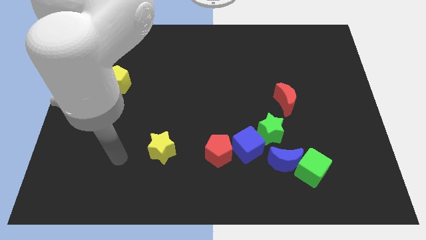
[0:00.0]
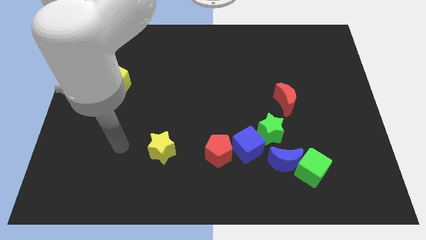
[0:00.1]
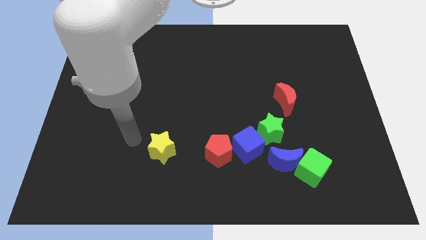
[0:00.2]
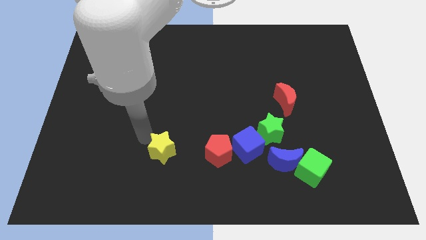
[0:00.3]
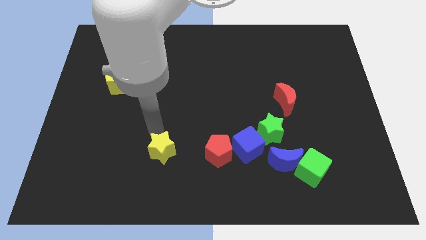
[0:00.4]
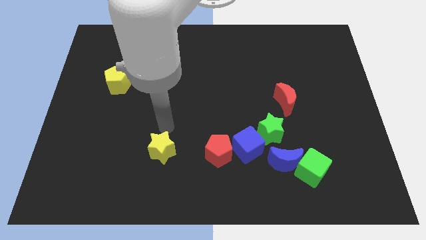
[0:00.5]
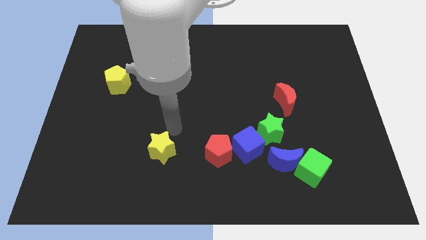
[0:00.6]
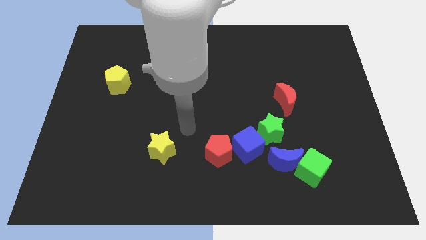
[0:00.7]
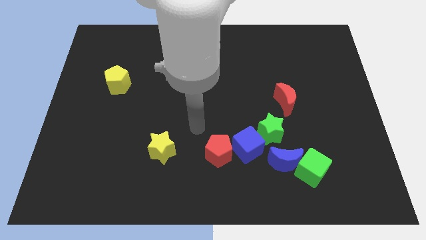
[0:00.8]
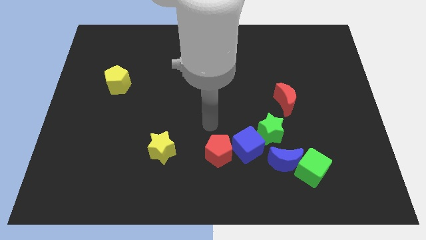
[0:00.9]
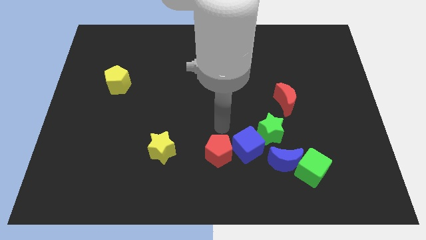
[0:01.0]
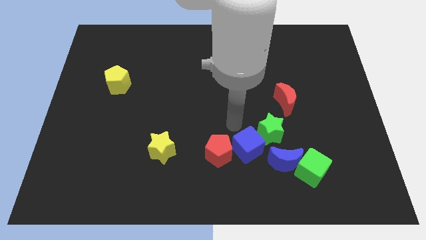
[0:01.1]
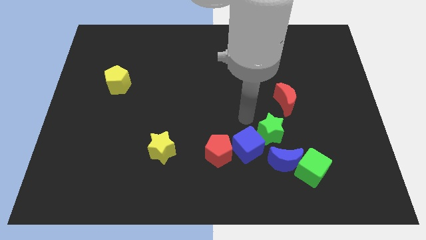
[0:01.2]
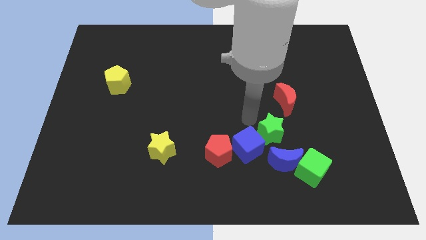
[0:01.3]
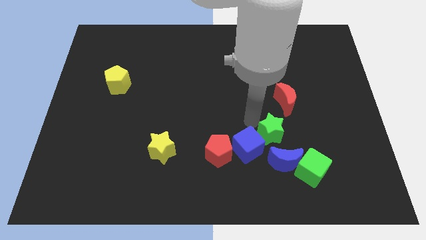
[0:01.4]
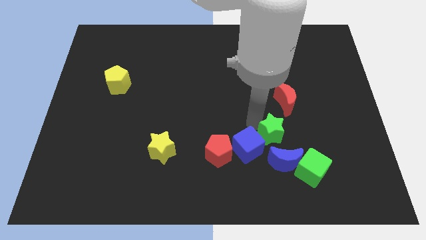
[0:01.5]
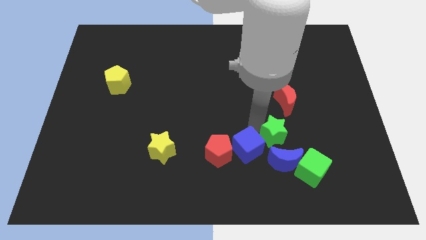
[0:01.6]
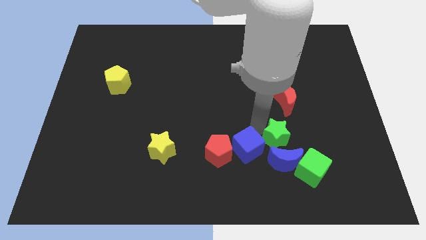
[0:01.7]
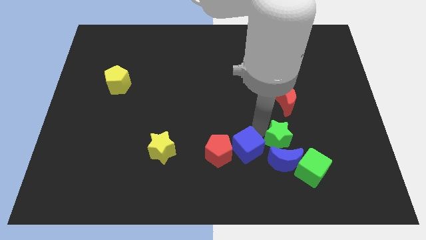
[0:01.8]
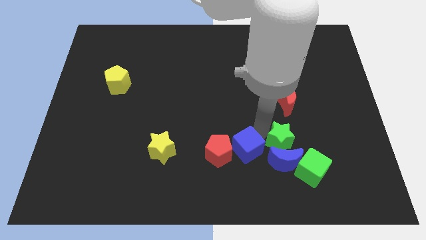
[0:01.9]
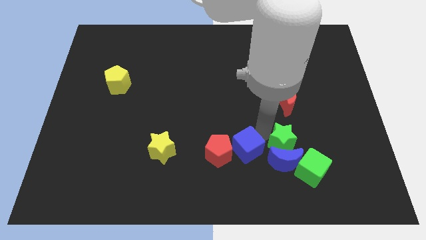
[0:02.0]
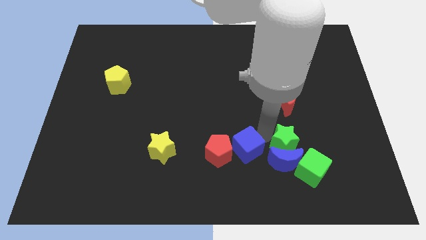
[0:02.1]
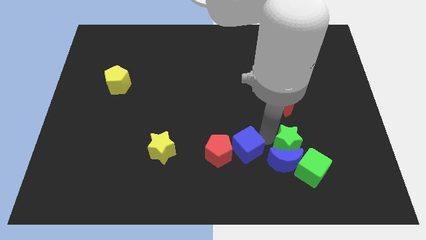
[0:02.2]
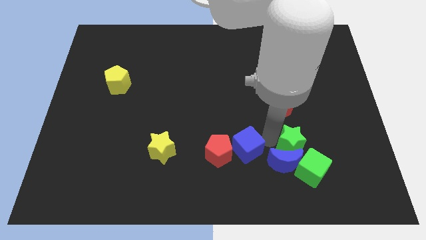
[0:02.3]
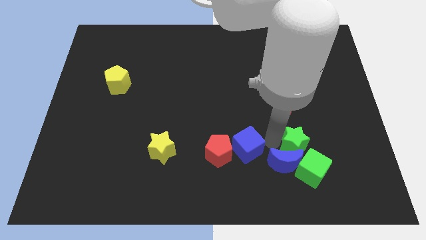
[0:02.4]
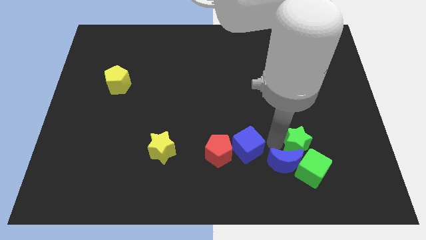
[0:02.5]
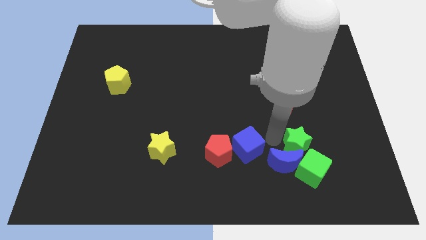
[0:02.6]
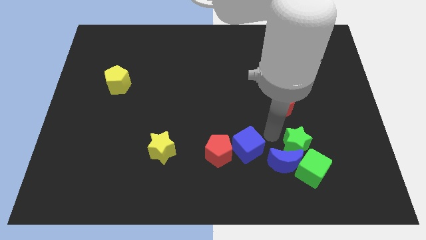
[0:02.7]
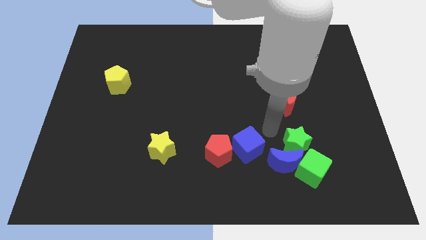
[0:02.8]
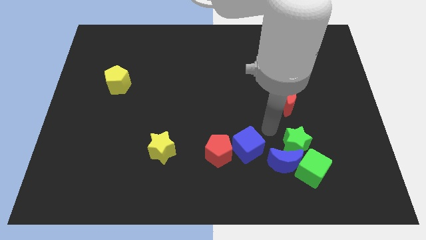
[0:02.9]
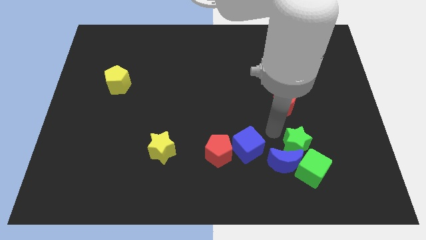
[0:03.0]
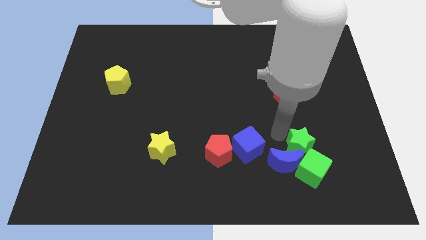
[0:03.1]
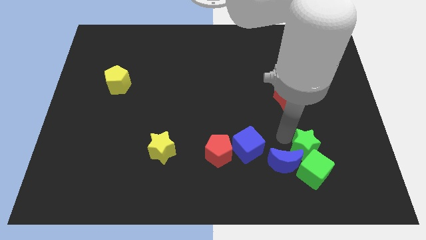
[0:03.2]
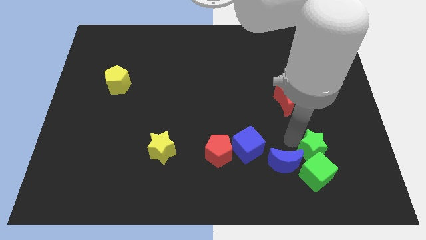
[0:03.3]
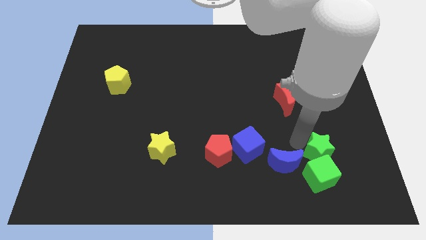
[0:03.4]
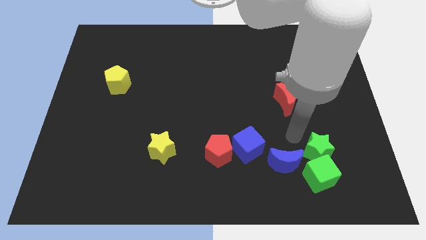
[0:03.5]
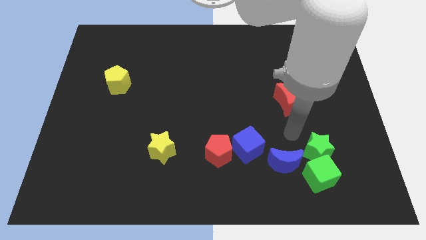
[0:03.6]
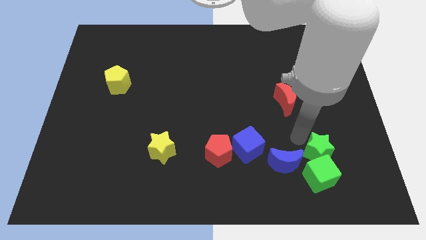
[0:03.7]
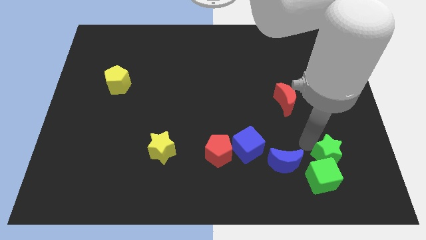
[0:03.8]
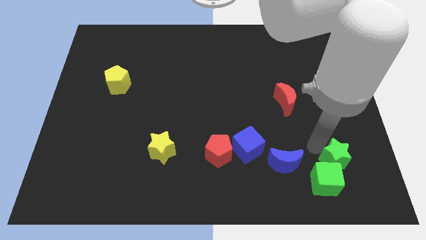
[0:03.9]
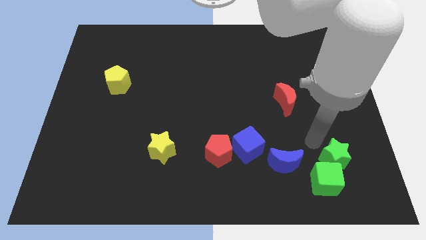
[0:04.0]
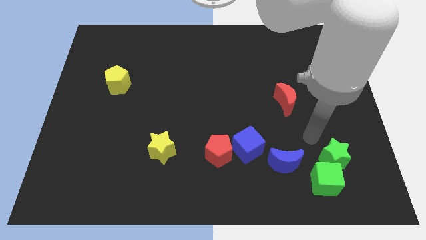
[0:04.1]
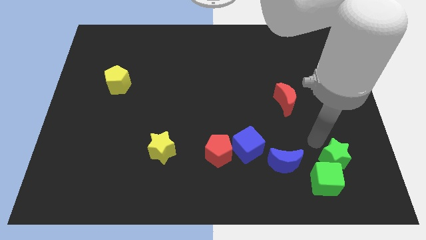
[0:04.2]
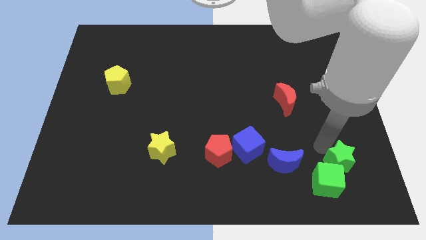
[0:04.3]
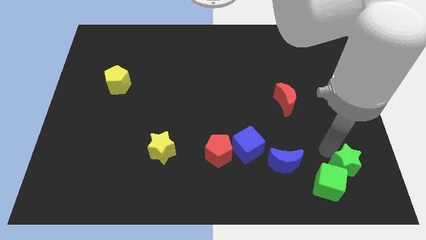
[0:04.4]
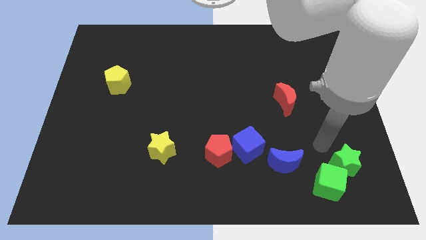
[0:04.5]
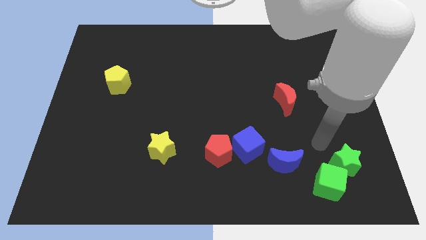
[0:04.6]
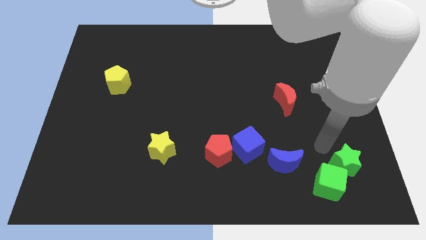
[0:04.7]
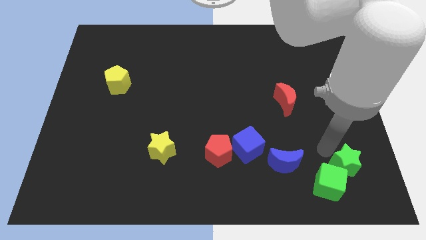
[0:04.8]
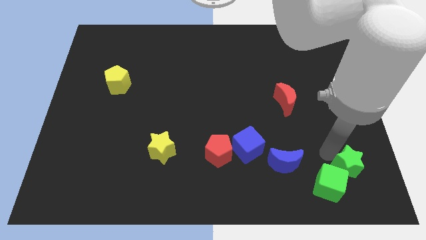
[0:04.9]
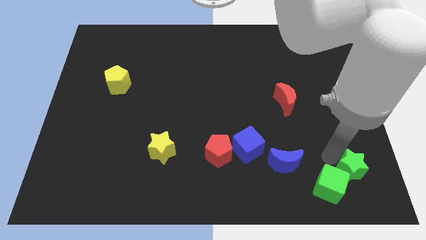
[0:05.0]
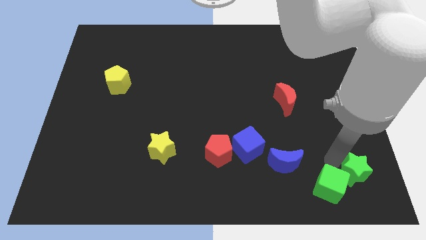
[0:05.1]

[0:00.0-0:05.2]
put the green star to the lower right corner

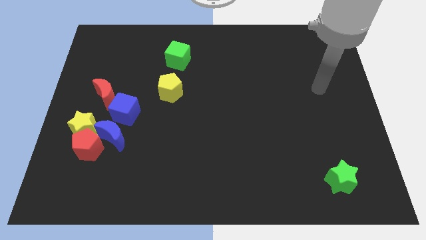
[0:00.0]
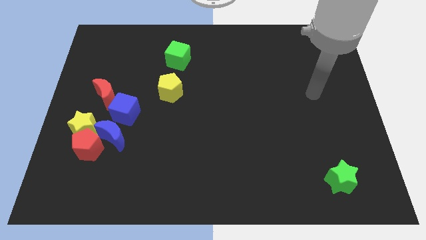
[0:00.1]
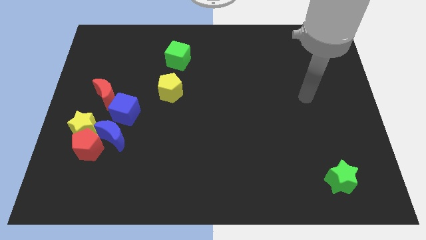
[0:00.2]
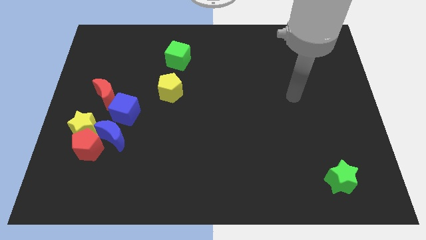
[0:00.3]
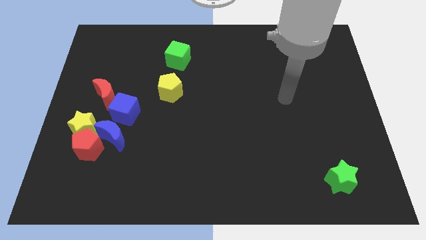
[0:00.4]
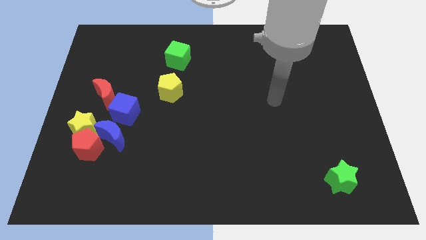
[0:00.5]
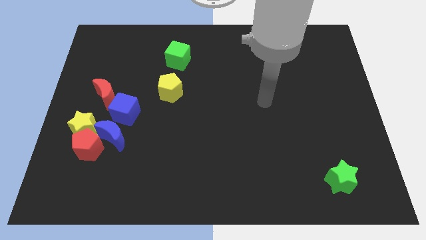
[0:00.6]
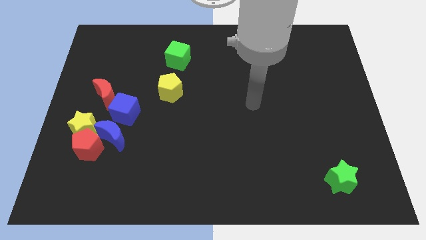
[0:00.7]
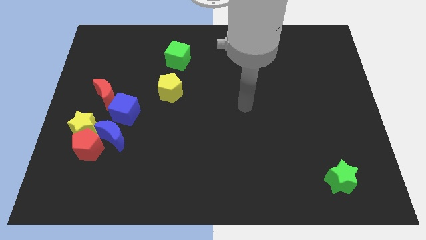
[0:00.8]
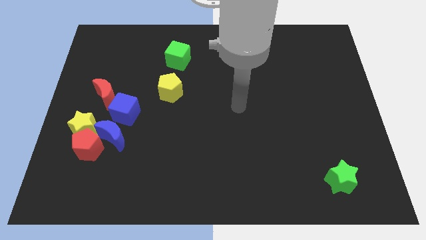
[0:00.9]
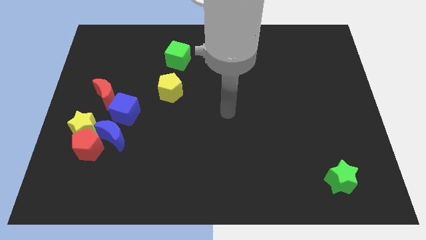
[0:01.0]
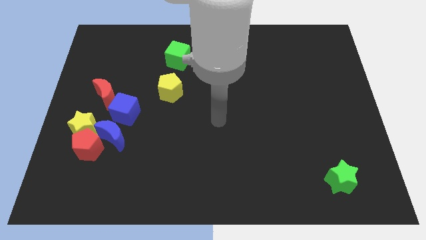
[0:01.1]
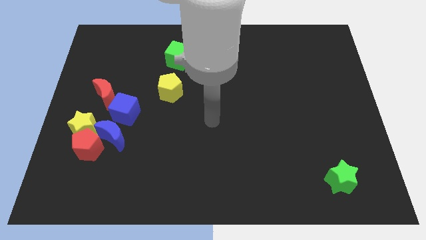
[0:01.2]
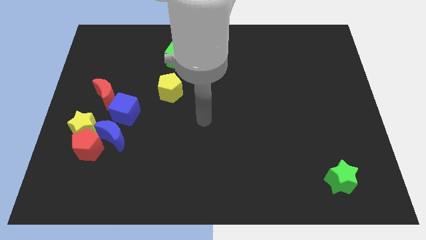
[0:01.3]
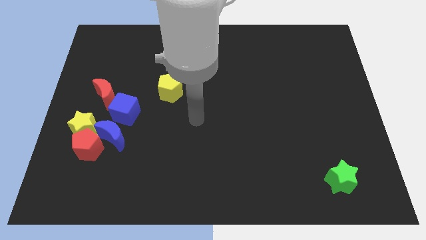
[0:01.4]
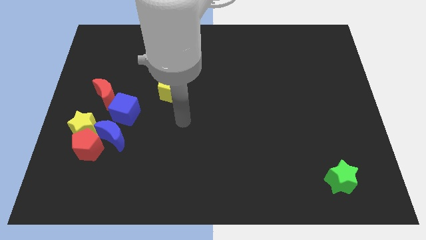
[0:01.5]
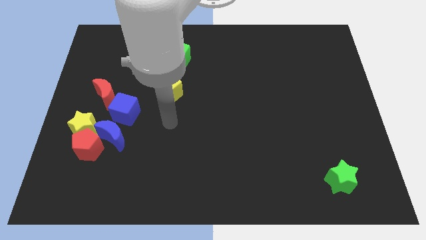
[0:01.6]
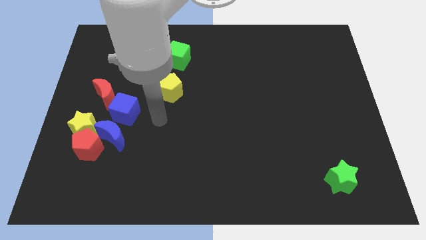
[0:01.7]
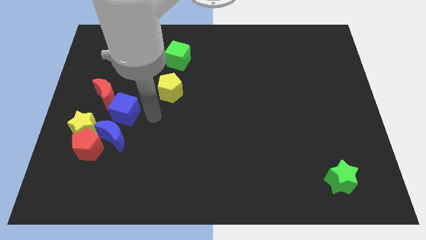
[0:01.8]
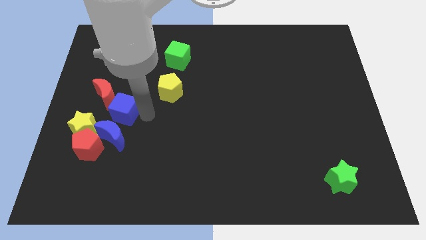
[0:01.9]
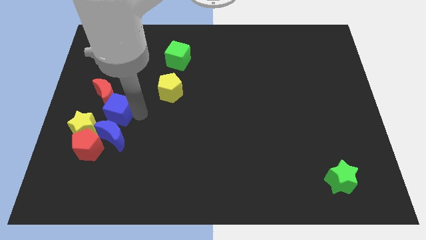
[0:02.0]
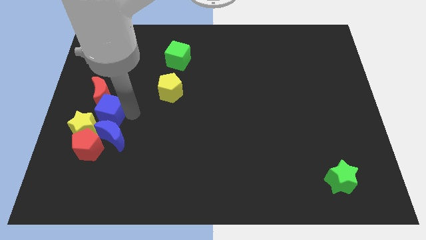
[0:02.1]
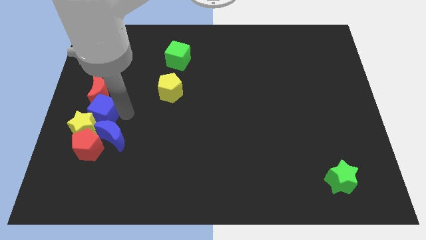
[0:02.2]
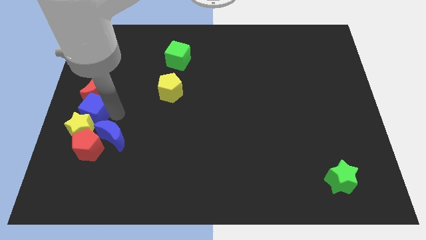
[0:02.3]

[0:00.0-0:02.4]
move the blue cube to the left side of the board
